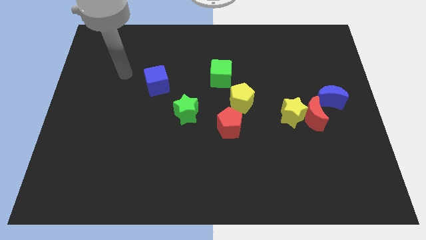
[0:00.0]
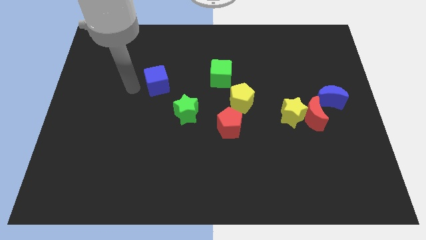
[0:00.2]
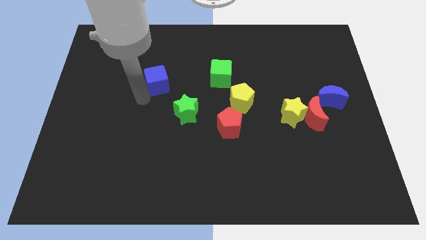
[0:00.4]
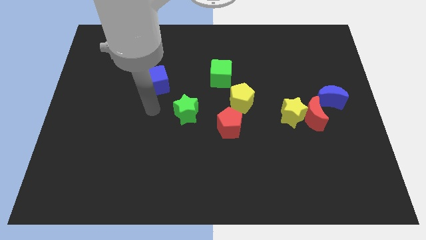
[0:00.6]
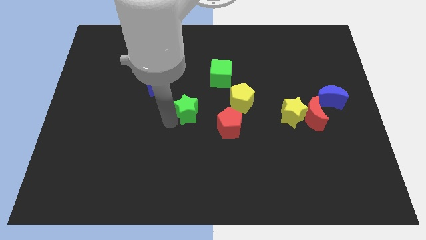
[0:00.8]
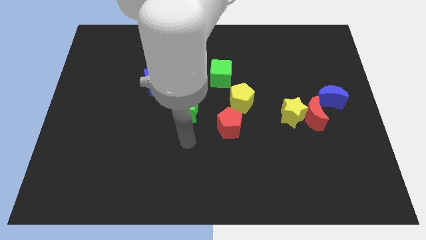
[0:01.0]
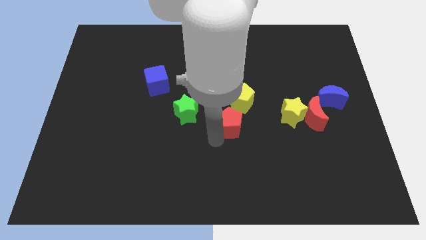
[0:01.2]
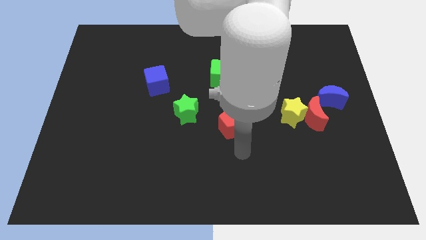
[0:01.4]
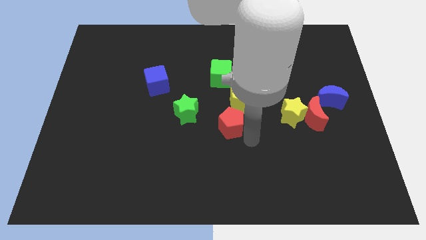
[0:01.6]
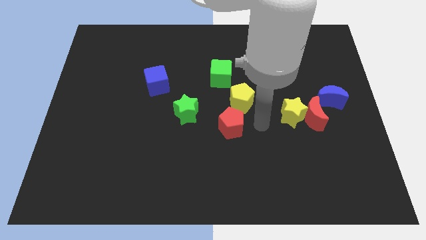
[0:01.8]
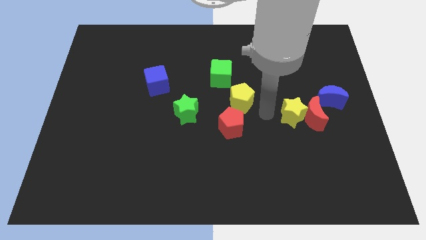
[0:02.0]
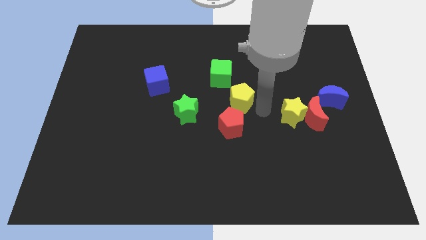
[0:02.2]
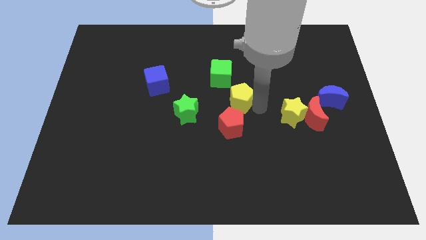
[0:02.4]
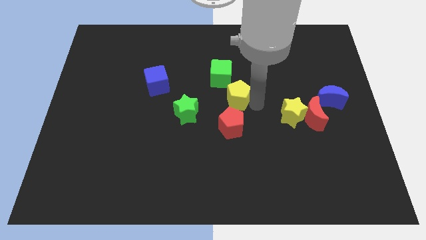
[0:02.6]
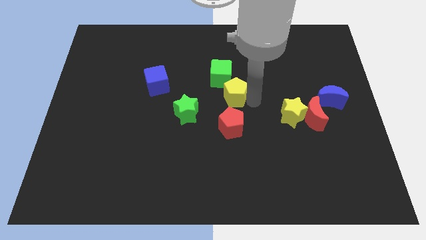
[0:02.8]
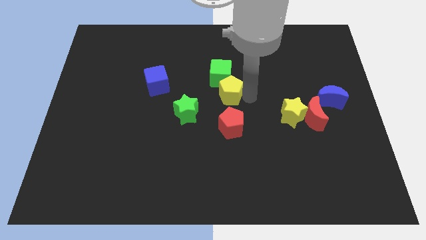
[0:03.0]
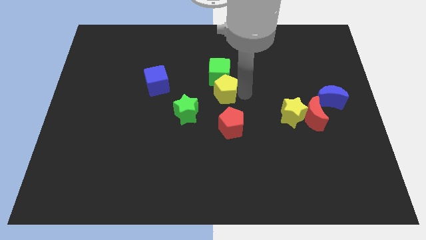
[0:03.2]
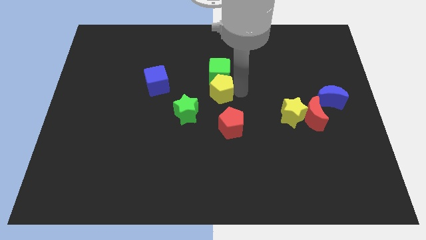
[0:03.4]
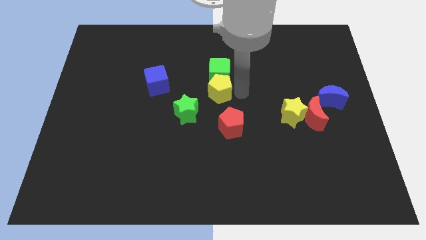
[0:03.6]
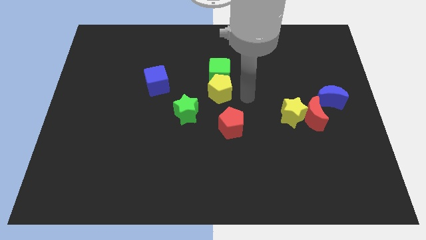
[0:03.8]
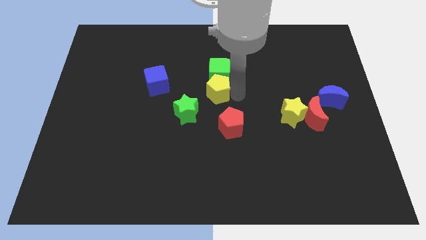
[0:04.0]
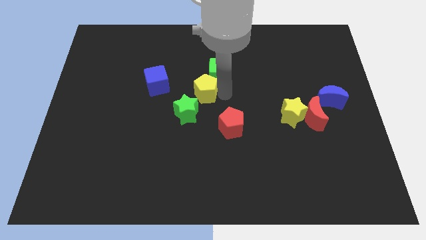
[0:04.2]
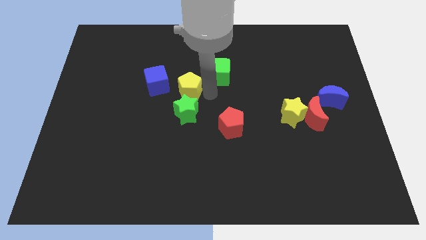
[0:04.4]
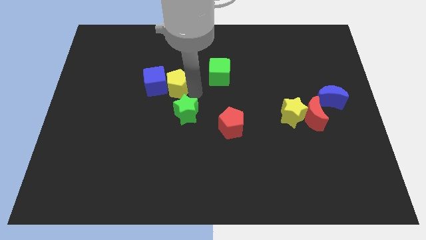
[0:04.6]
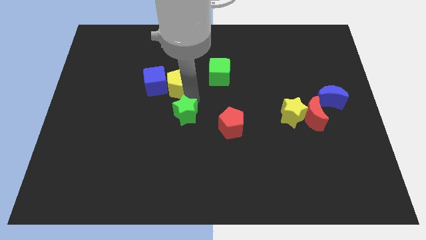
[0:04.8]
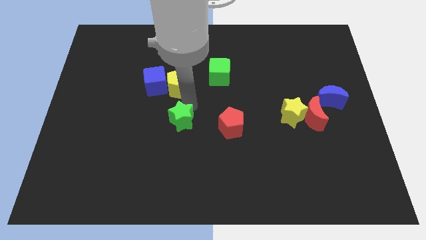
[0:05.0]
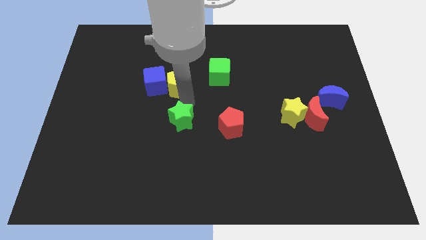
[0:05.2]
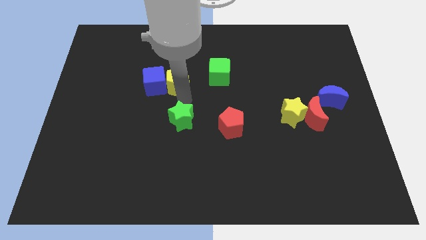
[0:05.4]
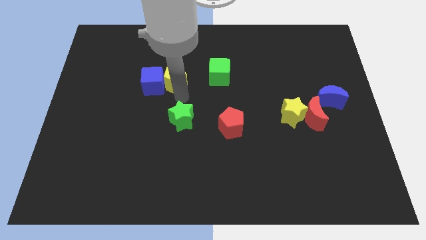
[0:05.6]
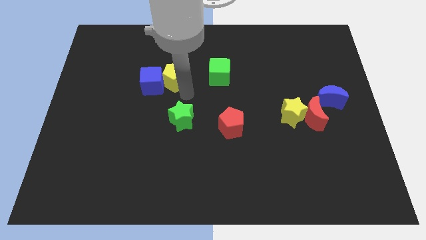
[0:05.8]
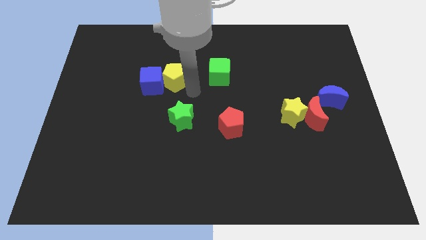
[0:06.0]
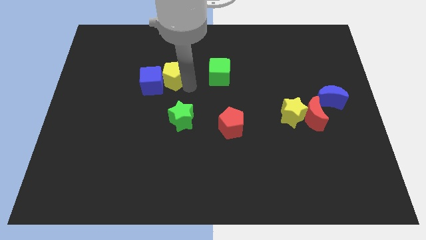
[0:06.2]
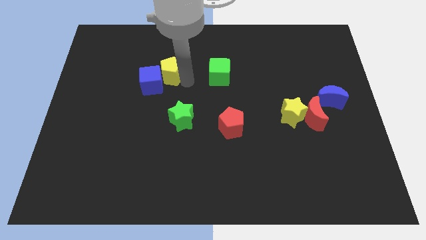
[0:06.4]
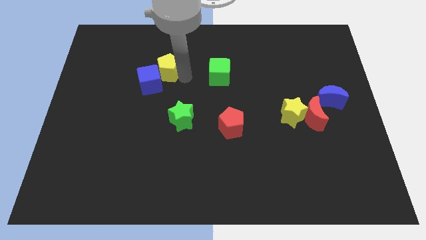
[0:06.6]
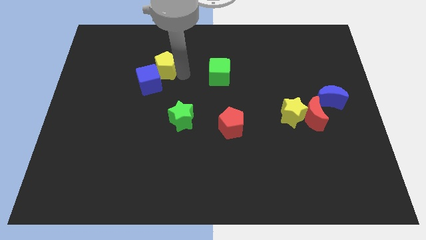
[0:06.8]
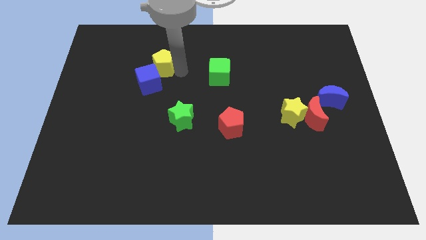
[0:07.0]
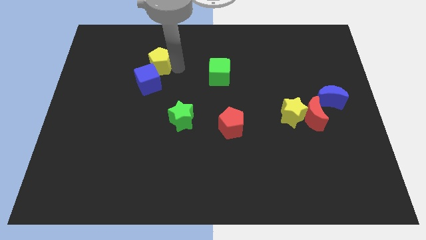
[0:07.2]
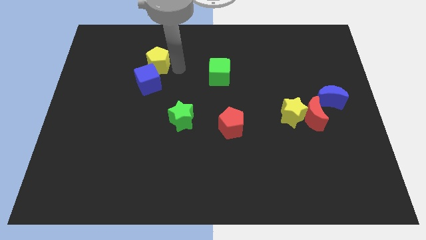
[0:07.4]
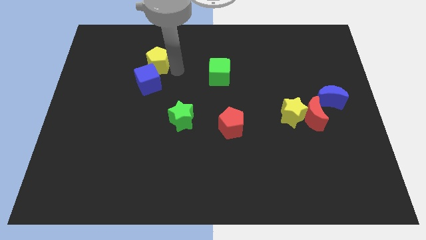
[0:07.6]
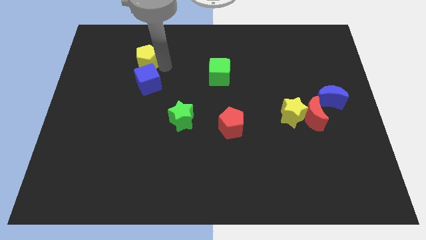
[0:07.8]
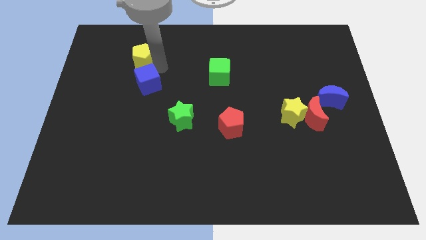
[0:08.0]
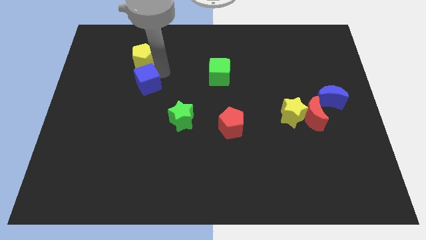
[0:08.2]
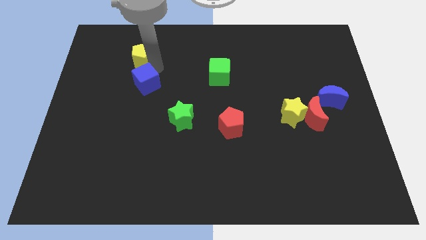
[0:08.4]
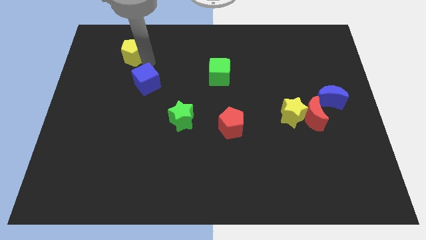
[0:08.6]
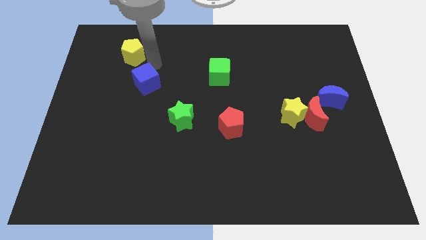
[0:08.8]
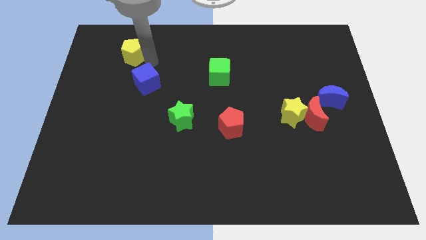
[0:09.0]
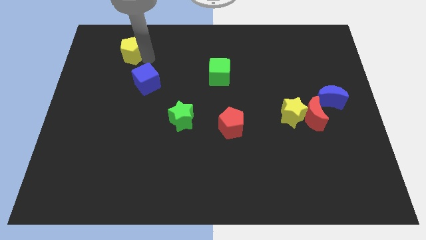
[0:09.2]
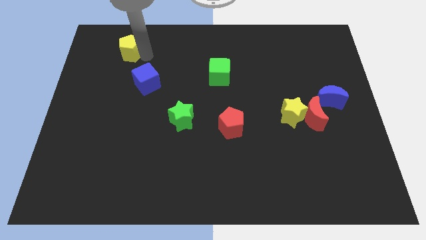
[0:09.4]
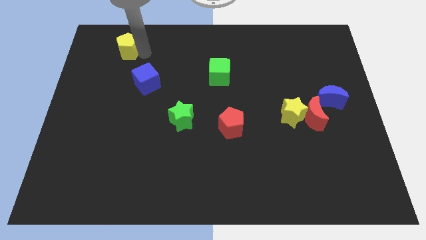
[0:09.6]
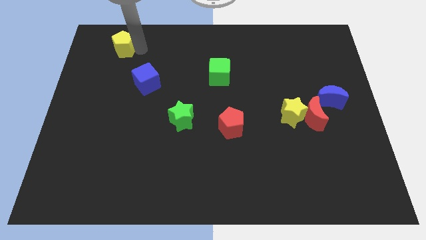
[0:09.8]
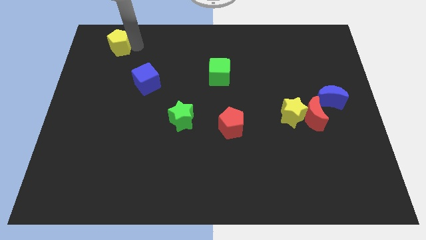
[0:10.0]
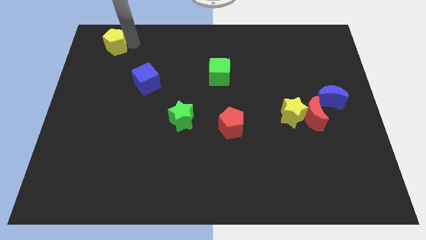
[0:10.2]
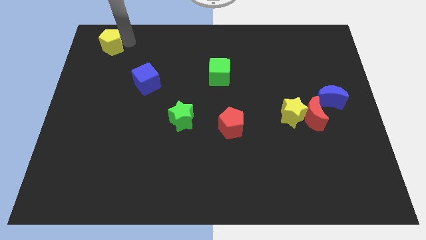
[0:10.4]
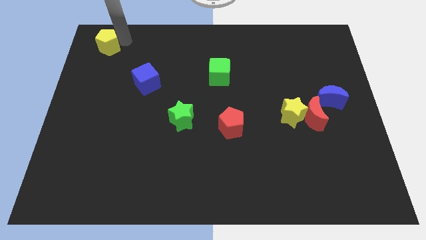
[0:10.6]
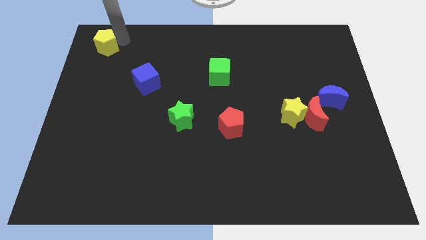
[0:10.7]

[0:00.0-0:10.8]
push the yellow pentagon to the upper left corner
